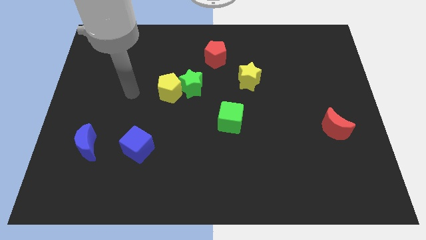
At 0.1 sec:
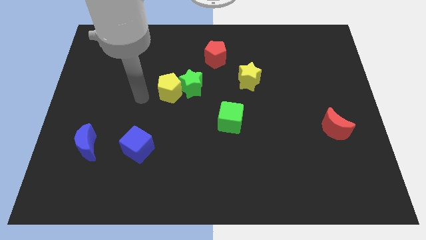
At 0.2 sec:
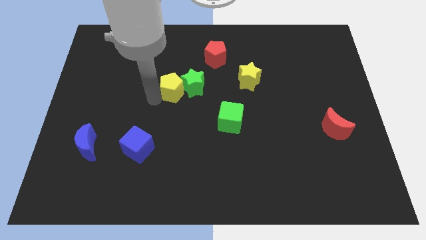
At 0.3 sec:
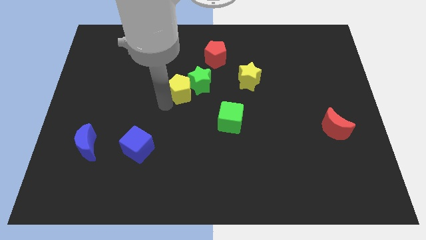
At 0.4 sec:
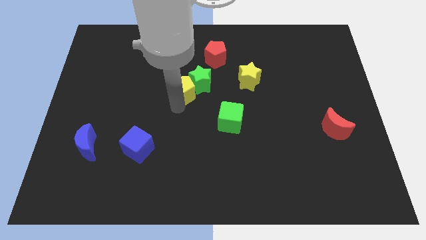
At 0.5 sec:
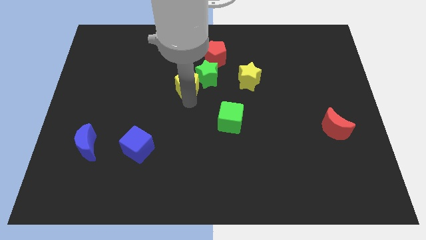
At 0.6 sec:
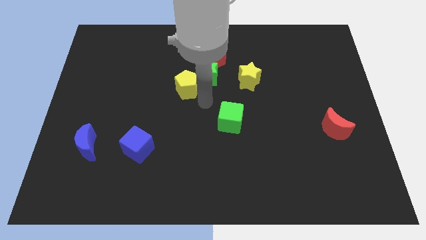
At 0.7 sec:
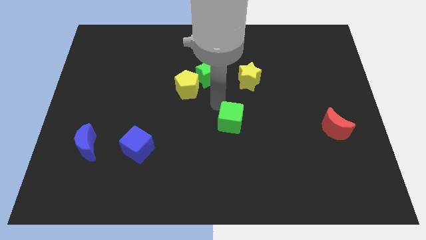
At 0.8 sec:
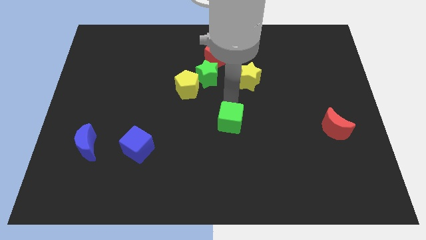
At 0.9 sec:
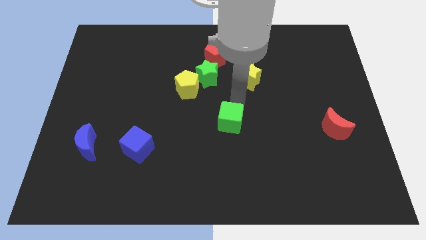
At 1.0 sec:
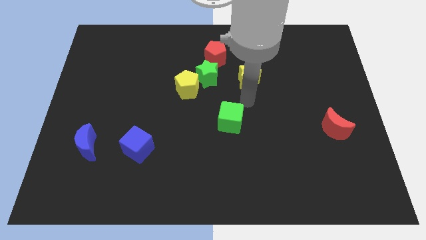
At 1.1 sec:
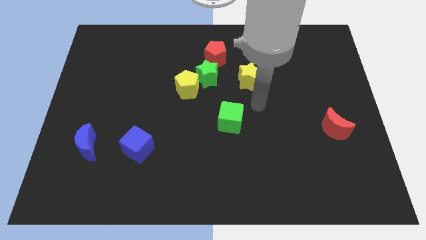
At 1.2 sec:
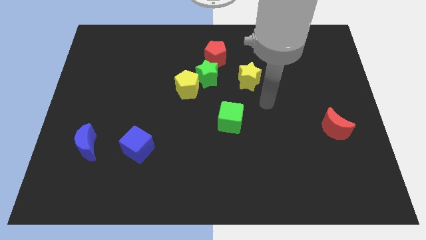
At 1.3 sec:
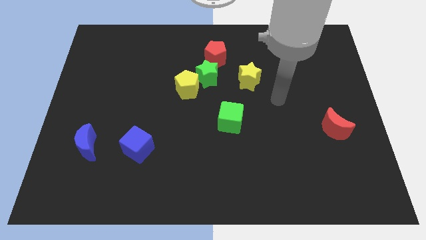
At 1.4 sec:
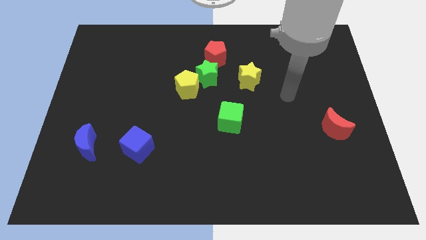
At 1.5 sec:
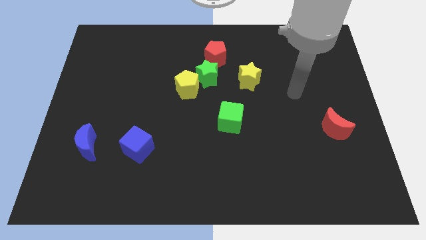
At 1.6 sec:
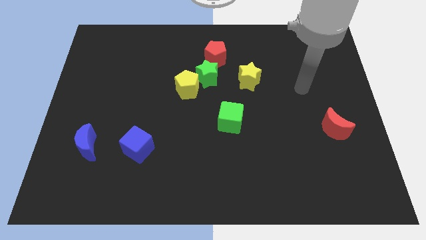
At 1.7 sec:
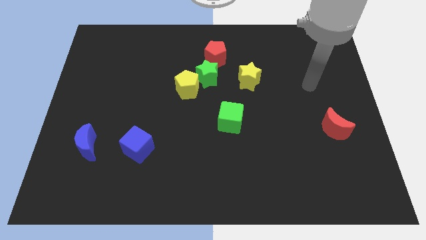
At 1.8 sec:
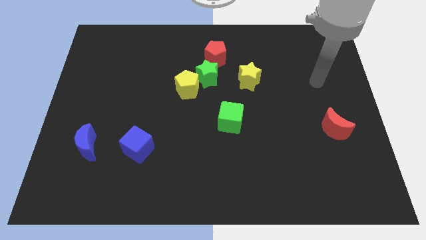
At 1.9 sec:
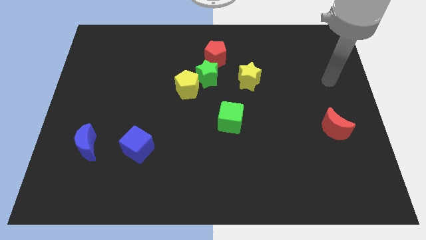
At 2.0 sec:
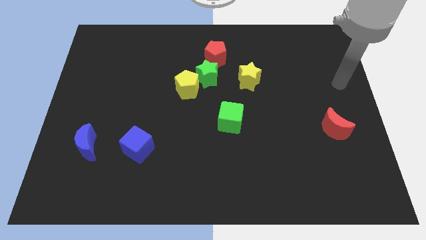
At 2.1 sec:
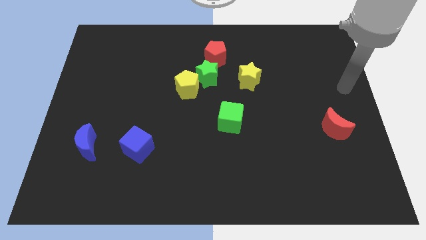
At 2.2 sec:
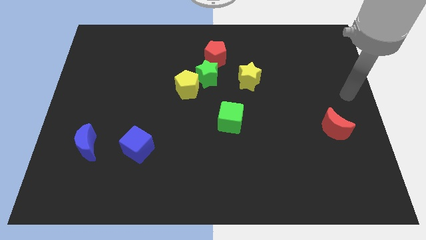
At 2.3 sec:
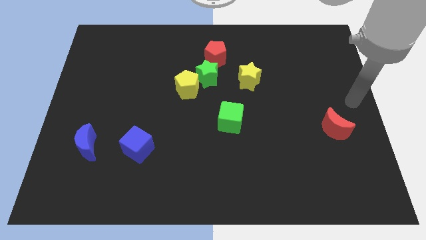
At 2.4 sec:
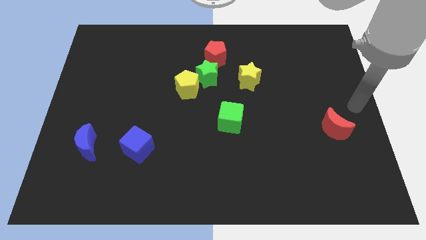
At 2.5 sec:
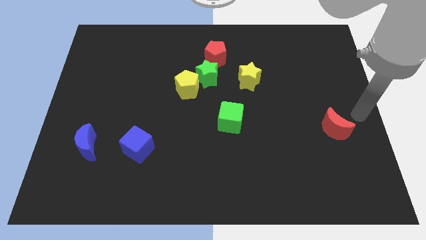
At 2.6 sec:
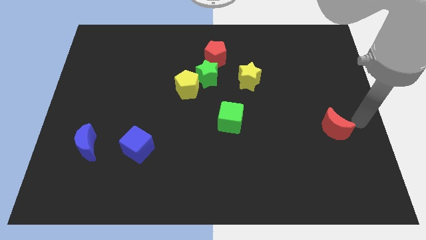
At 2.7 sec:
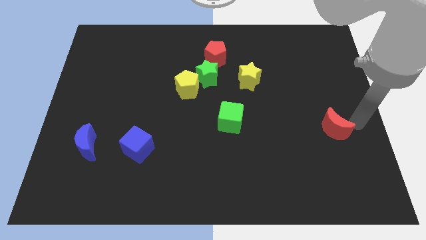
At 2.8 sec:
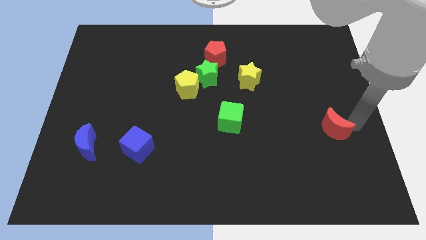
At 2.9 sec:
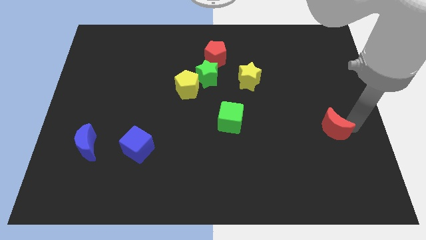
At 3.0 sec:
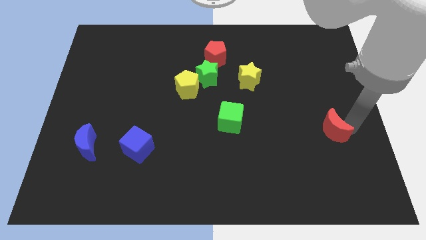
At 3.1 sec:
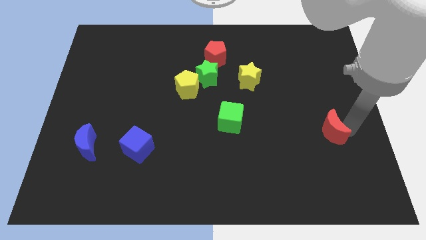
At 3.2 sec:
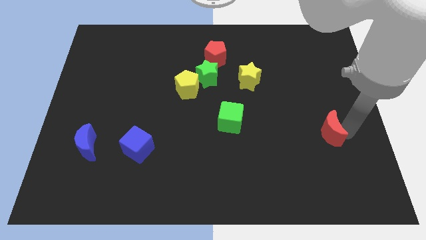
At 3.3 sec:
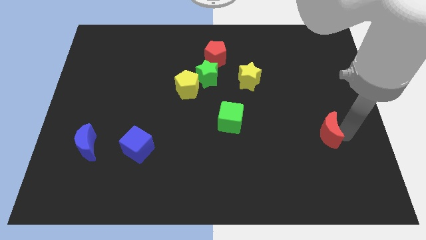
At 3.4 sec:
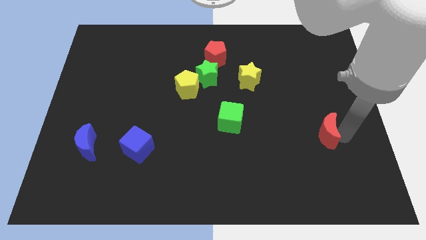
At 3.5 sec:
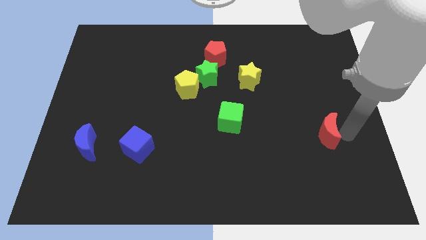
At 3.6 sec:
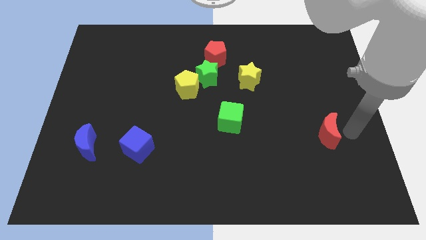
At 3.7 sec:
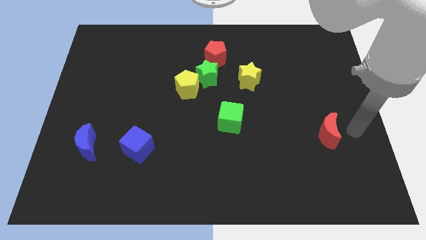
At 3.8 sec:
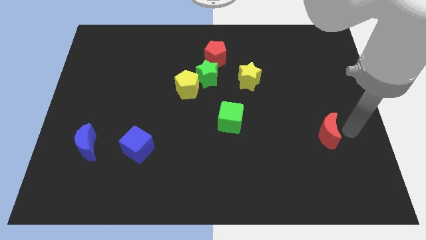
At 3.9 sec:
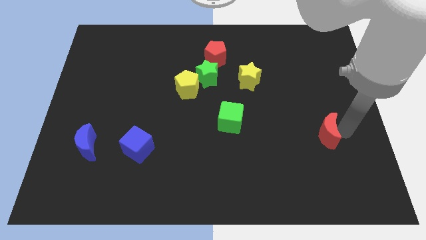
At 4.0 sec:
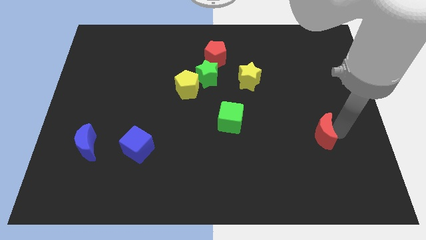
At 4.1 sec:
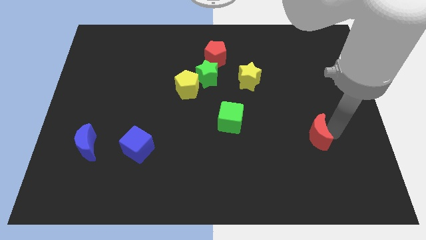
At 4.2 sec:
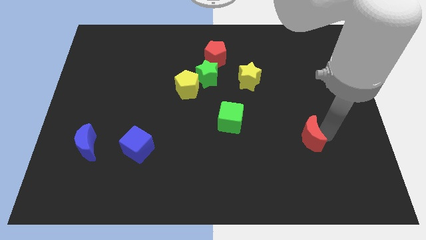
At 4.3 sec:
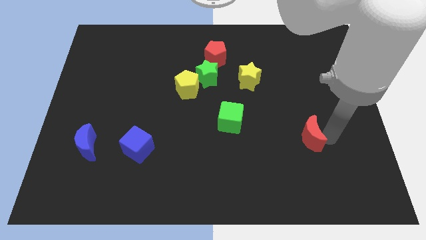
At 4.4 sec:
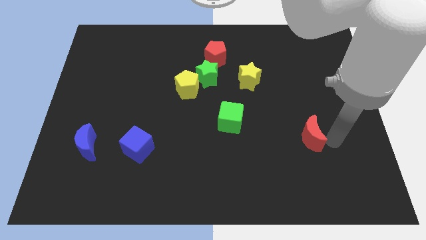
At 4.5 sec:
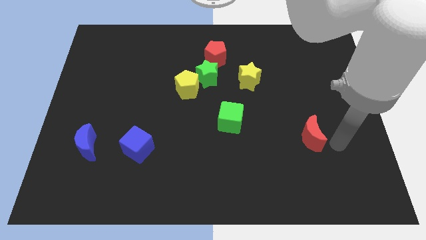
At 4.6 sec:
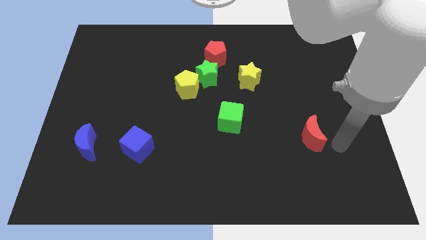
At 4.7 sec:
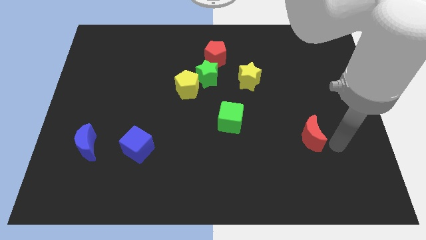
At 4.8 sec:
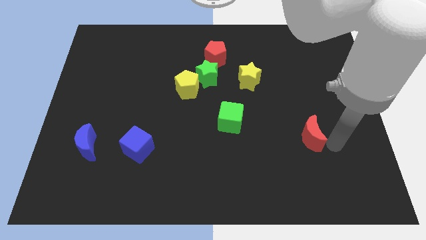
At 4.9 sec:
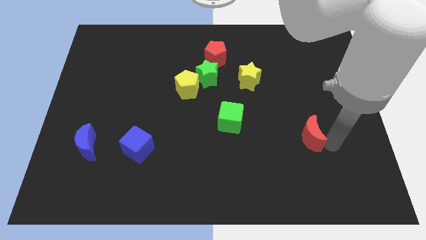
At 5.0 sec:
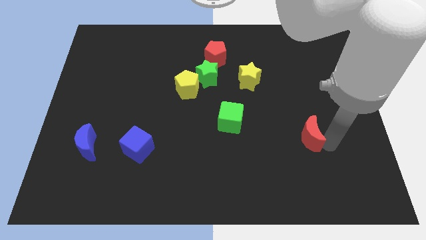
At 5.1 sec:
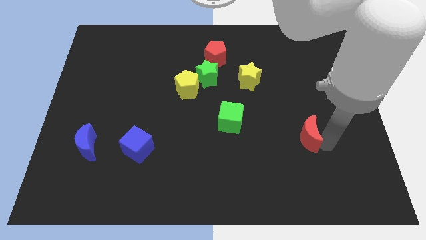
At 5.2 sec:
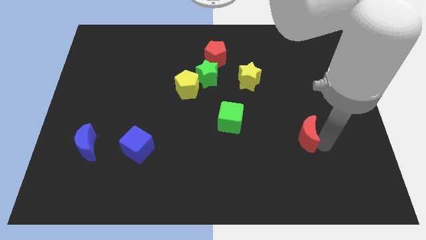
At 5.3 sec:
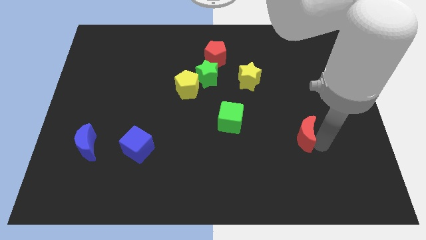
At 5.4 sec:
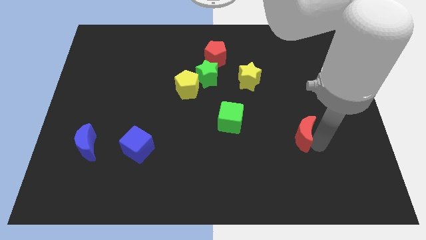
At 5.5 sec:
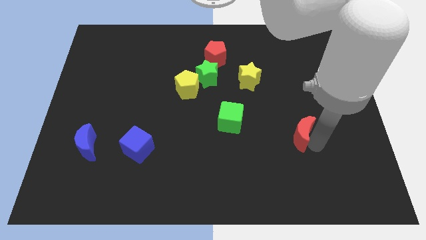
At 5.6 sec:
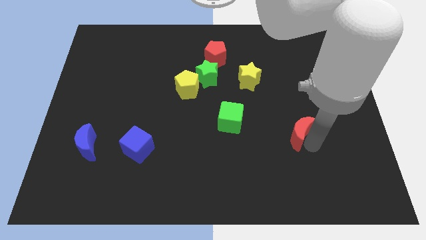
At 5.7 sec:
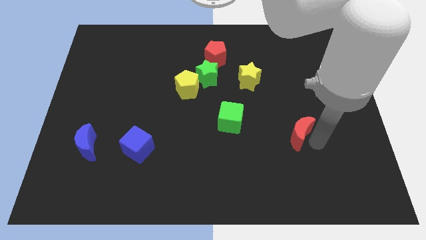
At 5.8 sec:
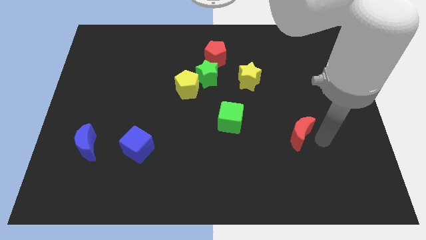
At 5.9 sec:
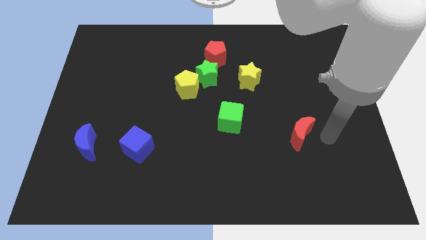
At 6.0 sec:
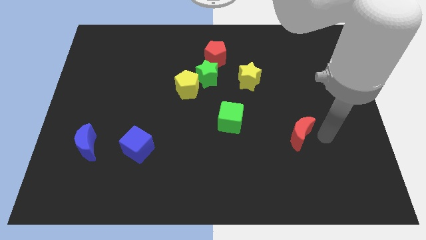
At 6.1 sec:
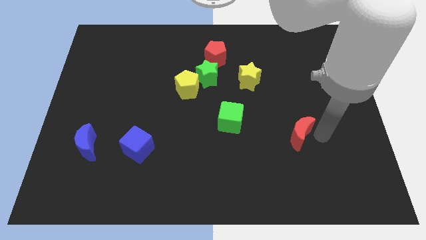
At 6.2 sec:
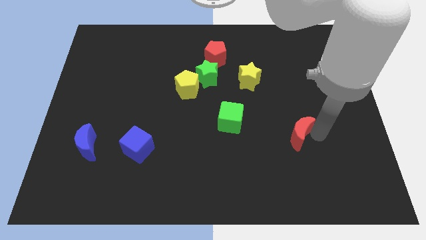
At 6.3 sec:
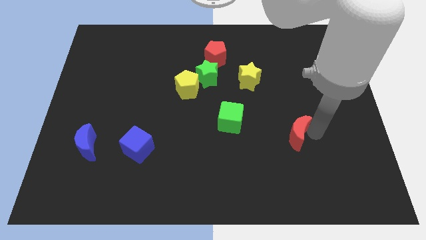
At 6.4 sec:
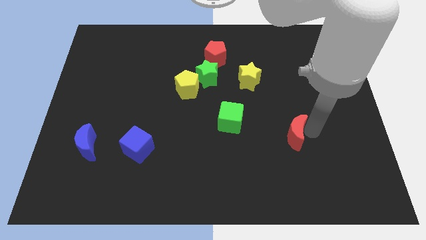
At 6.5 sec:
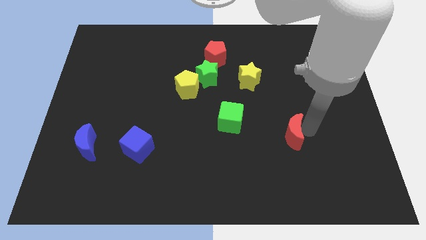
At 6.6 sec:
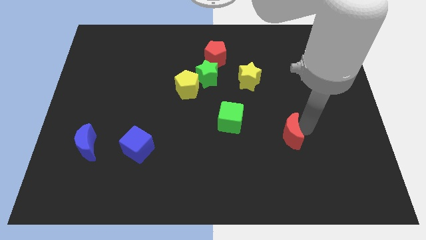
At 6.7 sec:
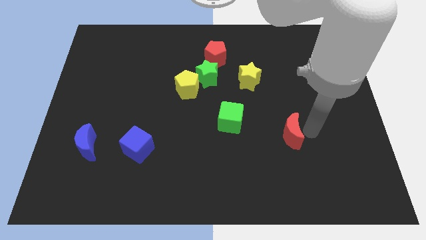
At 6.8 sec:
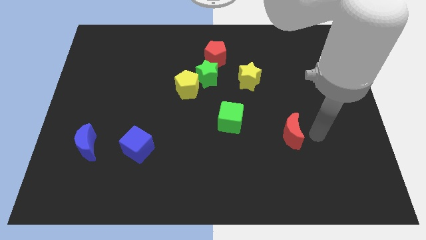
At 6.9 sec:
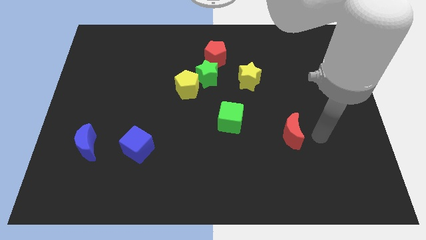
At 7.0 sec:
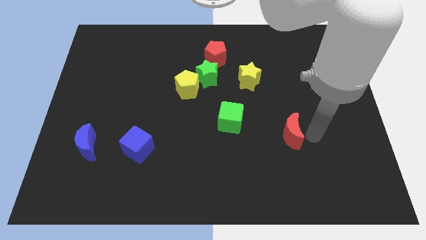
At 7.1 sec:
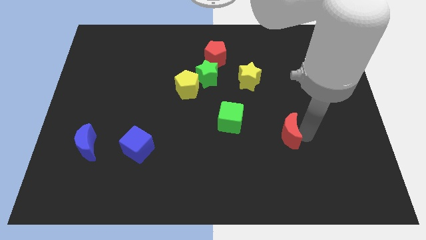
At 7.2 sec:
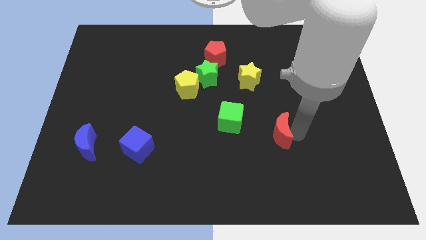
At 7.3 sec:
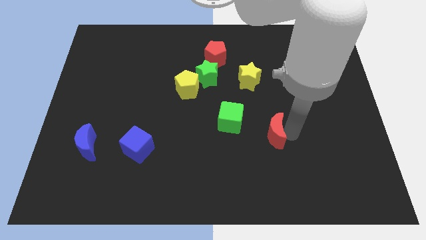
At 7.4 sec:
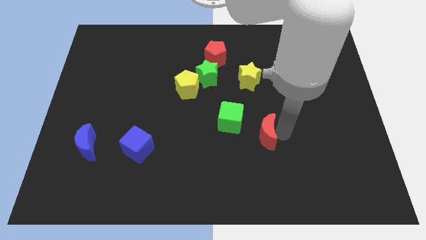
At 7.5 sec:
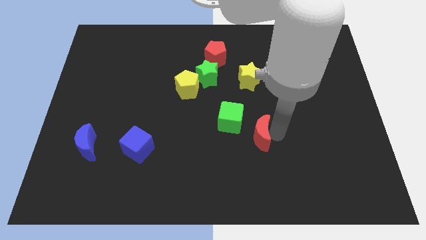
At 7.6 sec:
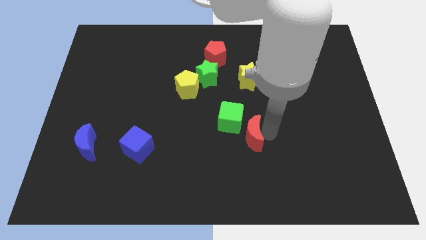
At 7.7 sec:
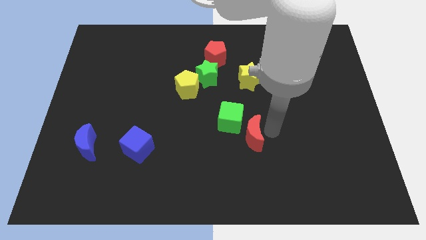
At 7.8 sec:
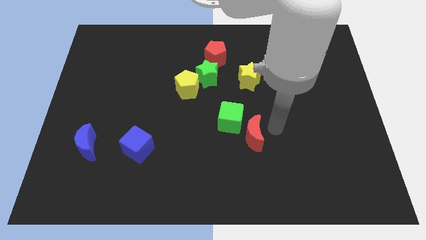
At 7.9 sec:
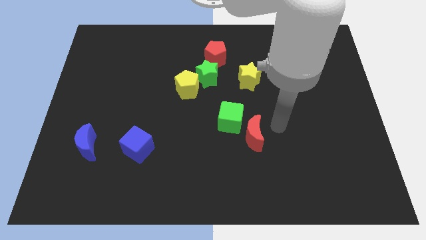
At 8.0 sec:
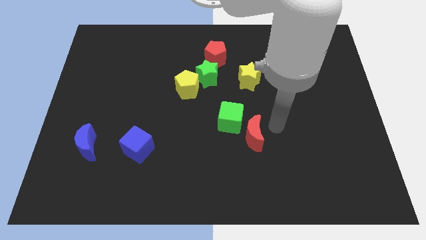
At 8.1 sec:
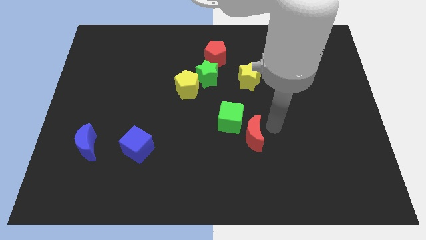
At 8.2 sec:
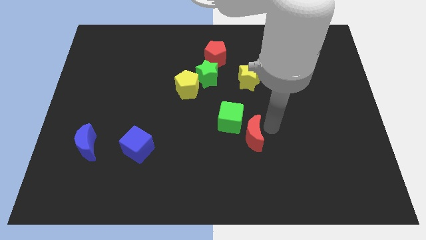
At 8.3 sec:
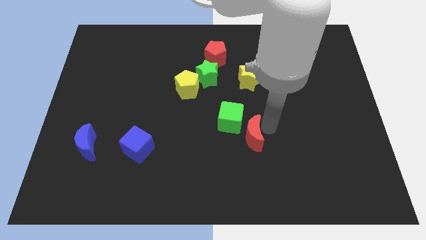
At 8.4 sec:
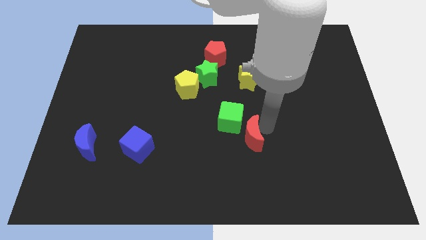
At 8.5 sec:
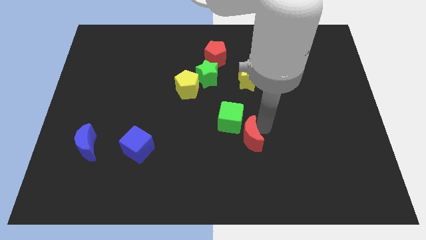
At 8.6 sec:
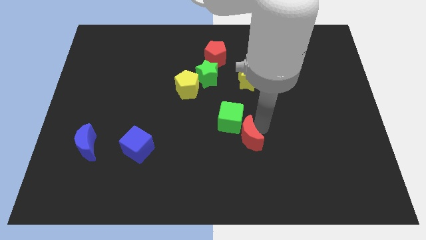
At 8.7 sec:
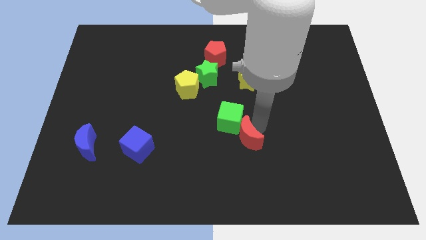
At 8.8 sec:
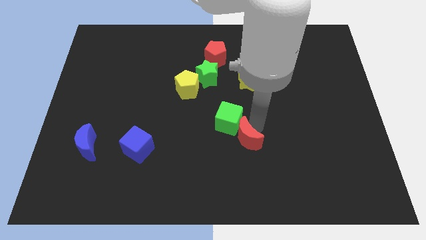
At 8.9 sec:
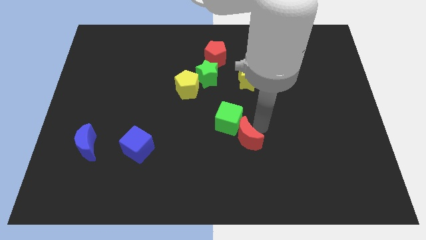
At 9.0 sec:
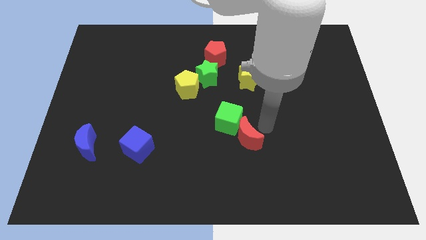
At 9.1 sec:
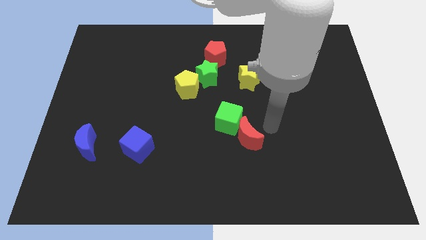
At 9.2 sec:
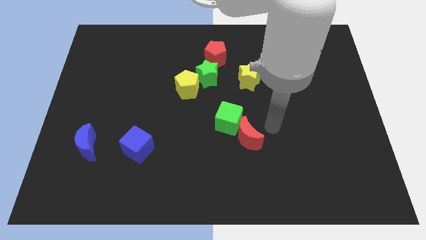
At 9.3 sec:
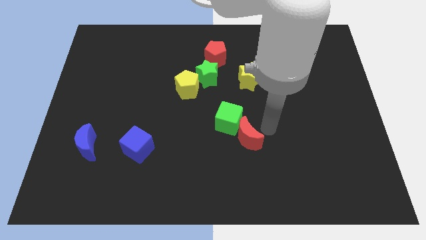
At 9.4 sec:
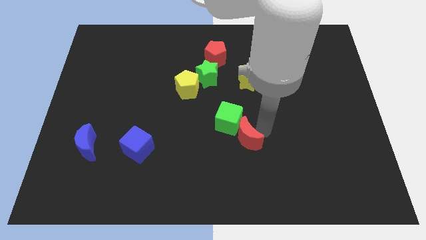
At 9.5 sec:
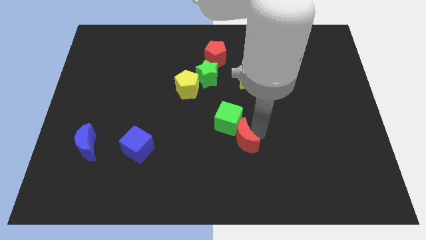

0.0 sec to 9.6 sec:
push the red moon to the left
